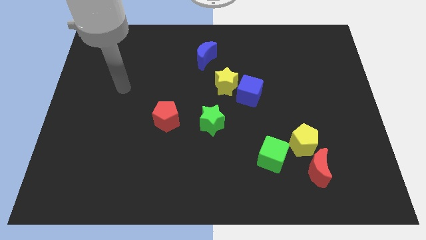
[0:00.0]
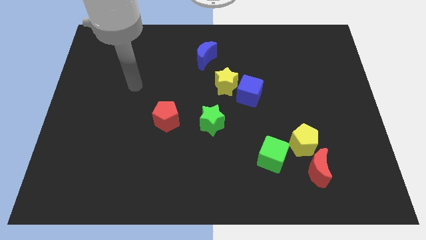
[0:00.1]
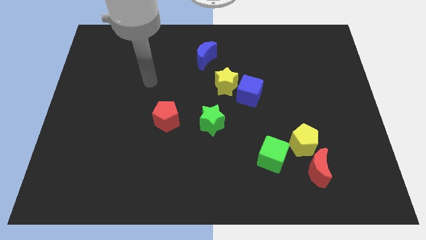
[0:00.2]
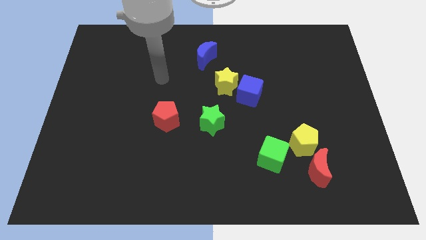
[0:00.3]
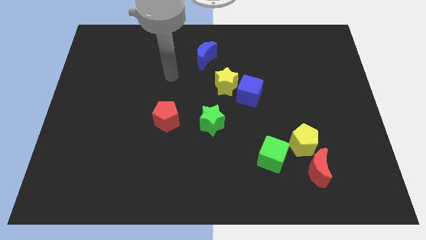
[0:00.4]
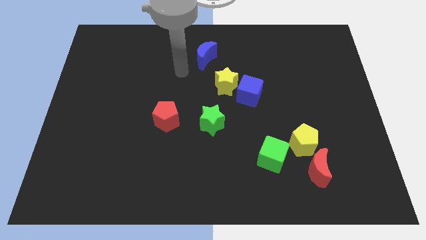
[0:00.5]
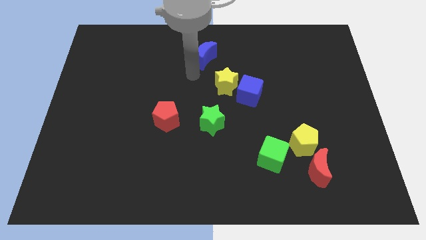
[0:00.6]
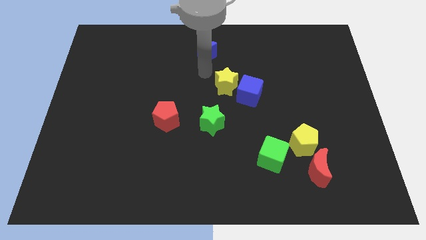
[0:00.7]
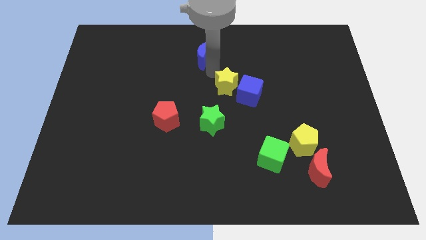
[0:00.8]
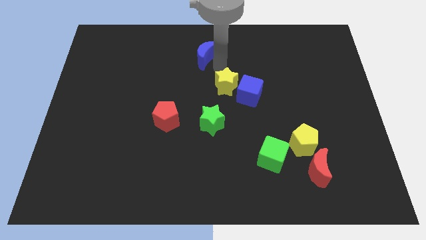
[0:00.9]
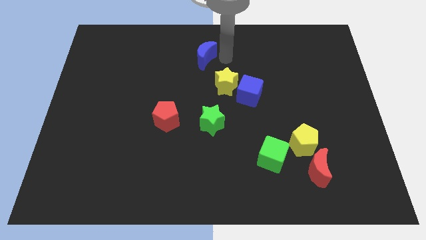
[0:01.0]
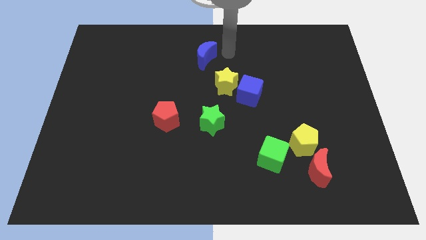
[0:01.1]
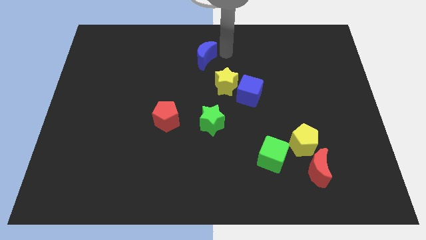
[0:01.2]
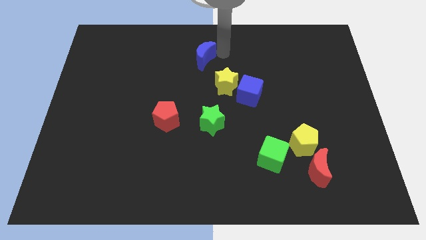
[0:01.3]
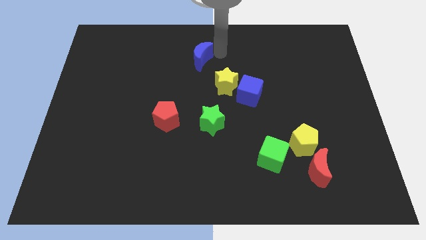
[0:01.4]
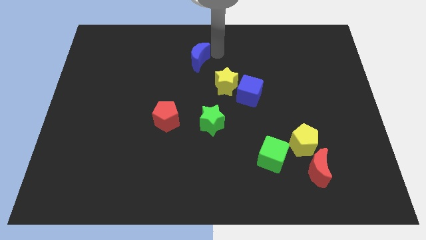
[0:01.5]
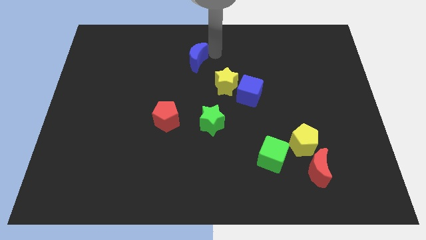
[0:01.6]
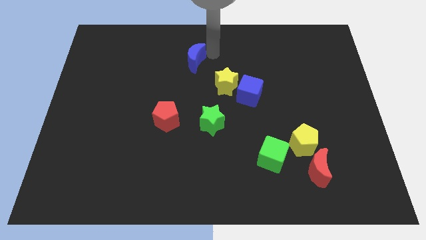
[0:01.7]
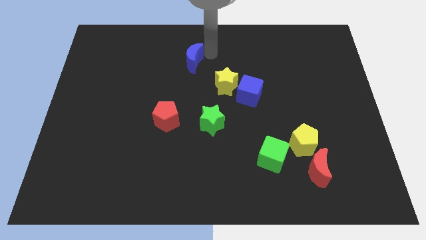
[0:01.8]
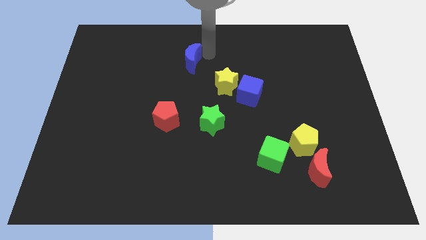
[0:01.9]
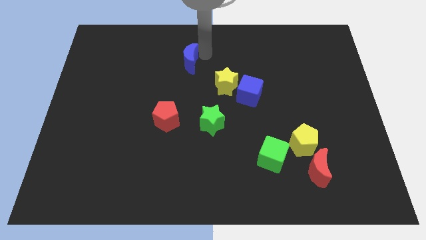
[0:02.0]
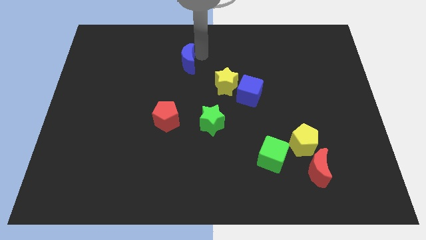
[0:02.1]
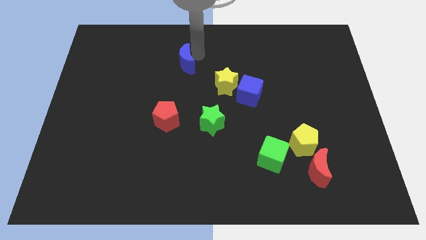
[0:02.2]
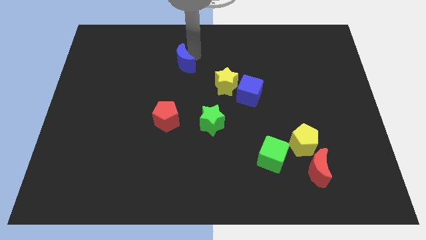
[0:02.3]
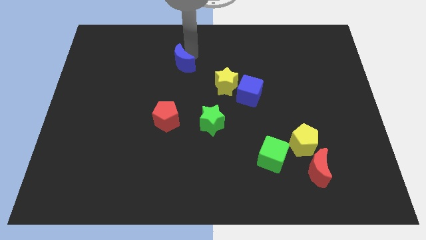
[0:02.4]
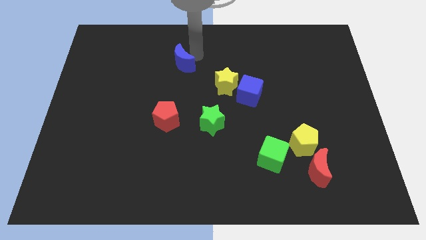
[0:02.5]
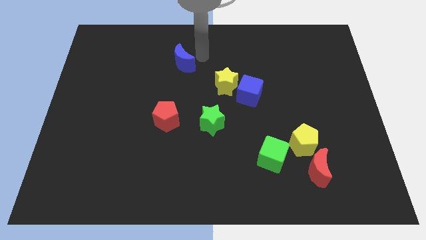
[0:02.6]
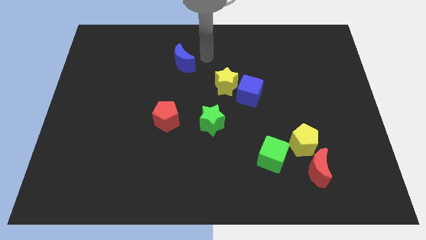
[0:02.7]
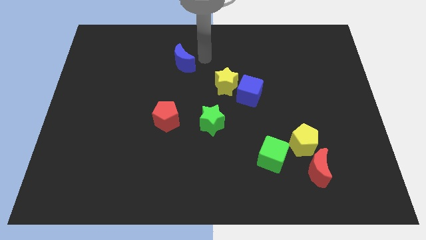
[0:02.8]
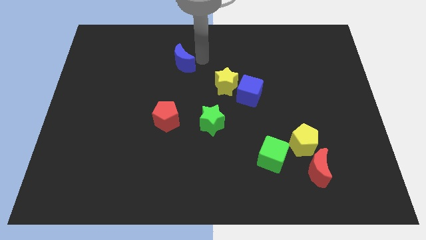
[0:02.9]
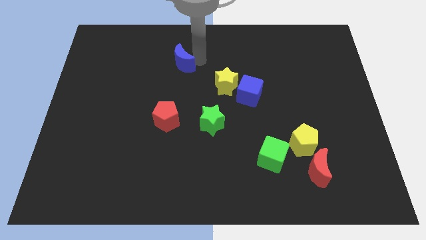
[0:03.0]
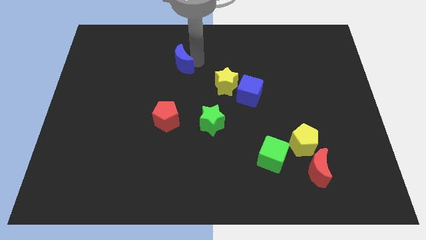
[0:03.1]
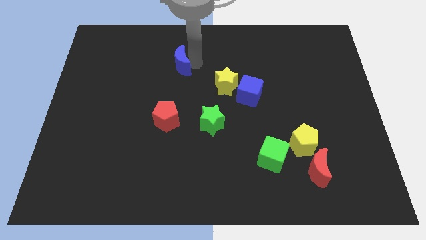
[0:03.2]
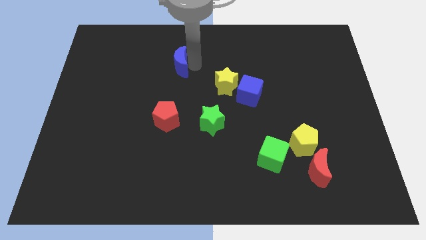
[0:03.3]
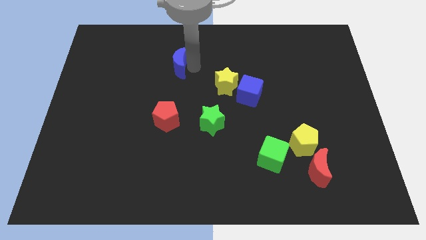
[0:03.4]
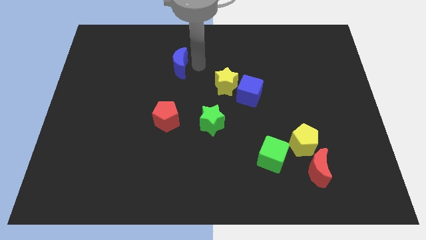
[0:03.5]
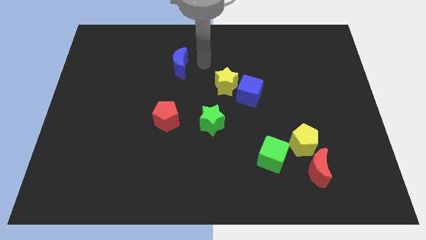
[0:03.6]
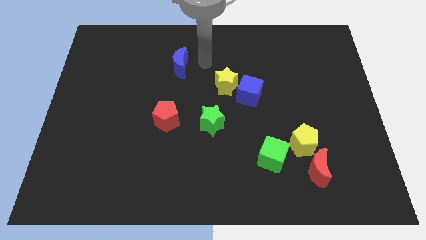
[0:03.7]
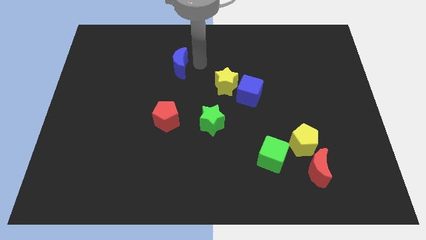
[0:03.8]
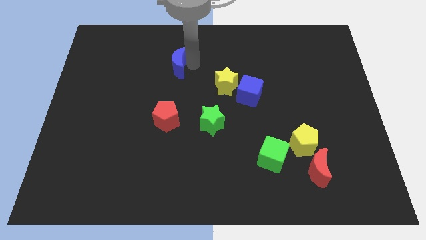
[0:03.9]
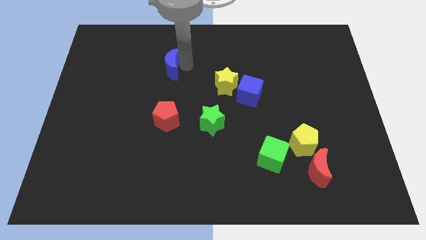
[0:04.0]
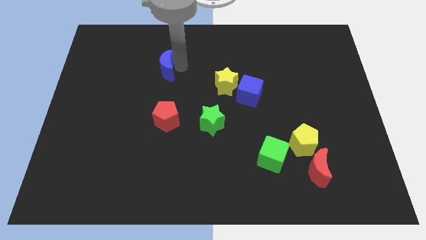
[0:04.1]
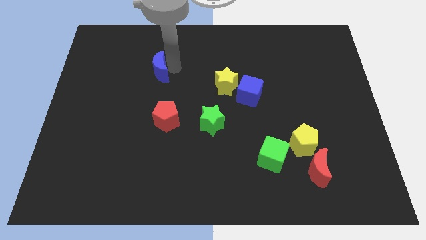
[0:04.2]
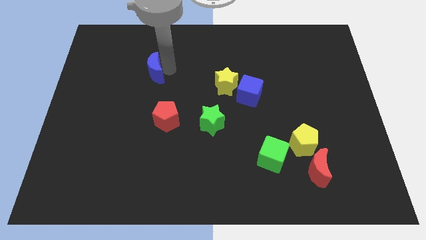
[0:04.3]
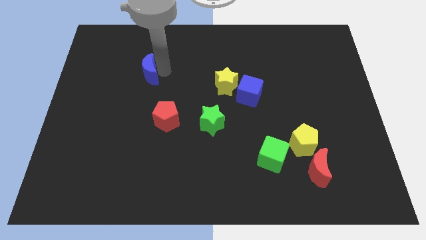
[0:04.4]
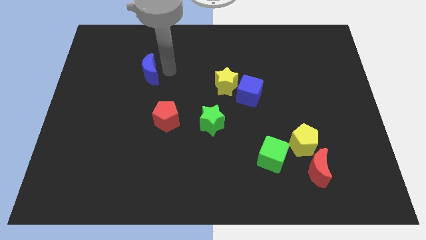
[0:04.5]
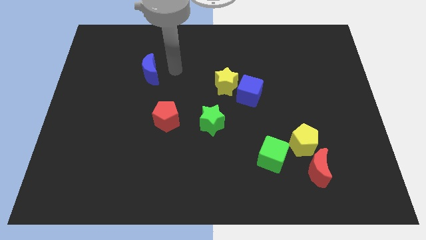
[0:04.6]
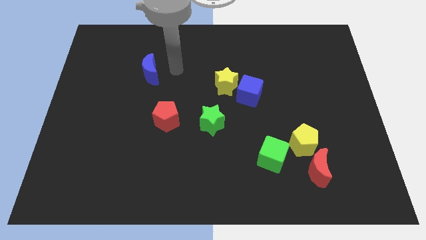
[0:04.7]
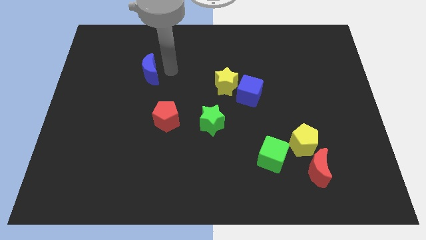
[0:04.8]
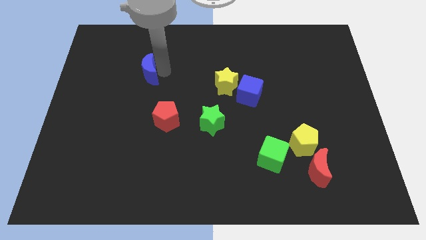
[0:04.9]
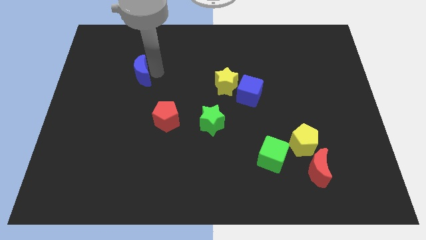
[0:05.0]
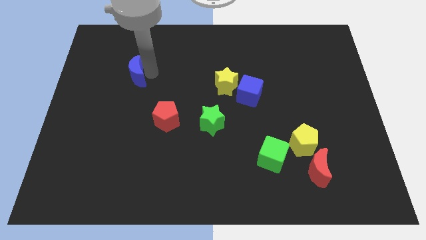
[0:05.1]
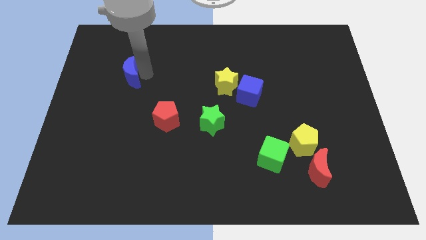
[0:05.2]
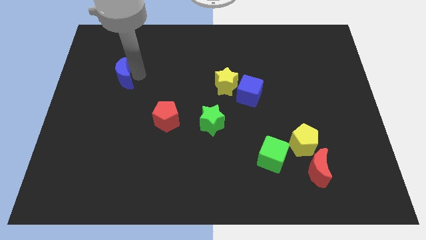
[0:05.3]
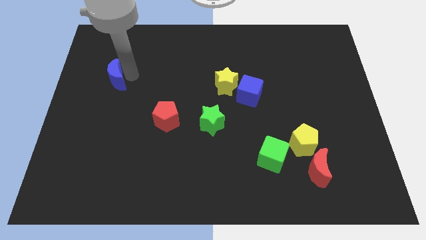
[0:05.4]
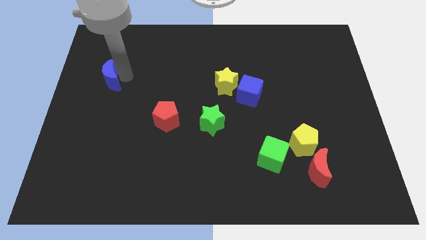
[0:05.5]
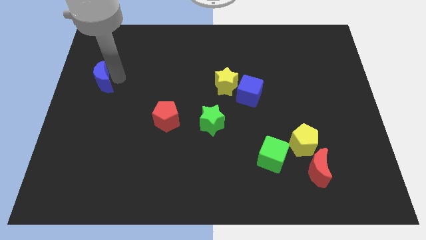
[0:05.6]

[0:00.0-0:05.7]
put the blue moon to the left side

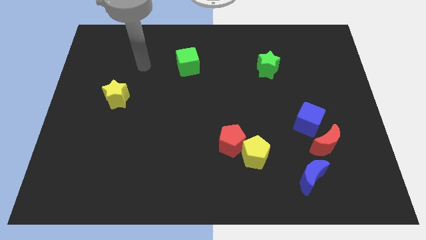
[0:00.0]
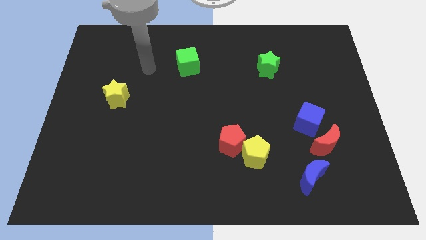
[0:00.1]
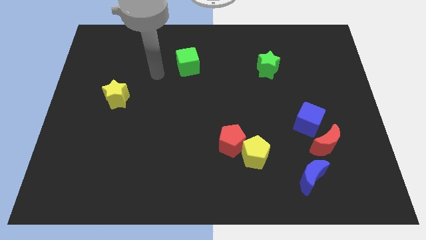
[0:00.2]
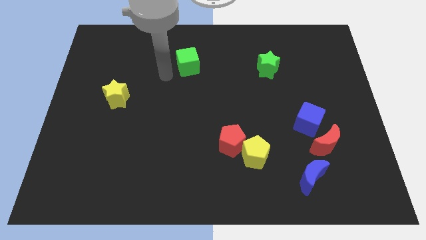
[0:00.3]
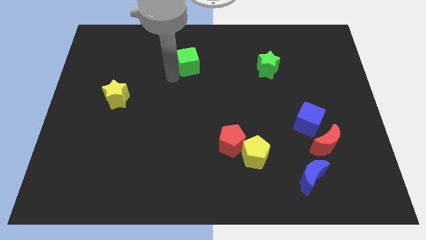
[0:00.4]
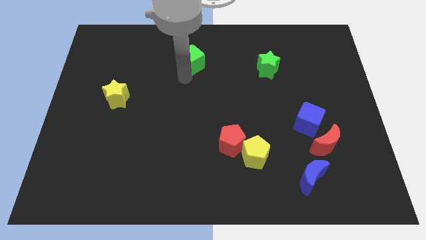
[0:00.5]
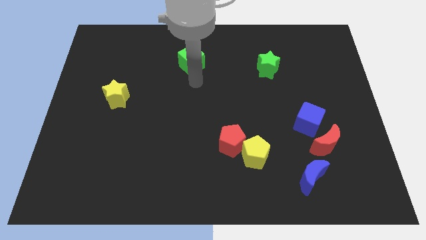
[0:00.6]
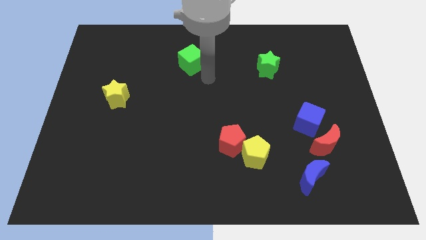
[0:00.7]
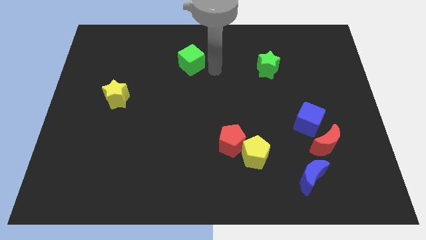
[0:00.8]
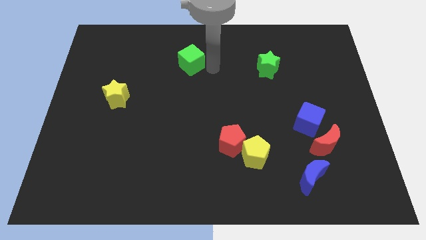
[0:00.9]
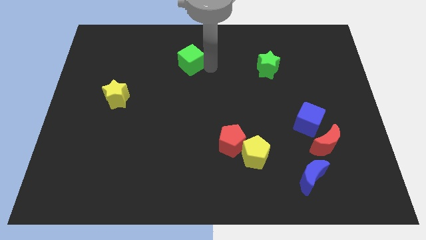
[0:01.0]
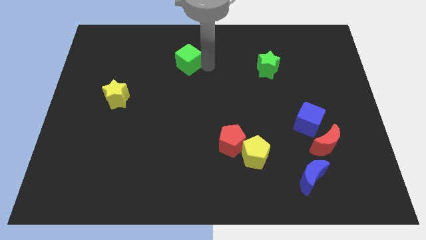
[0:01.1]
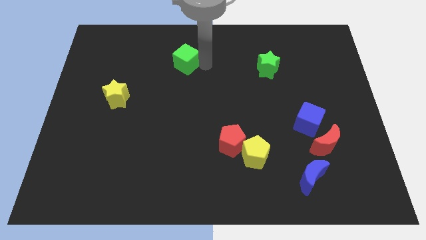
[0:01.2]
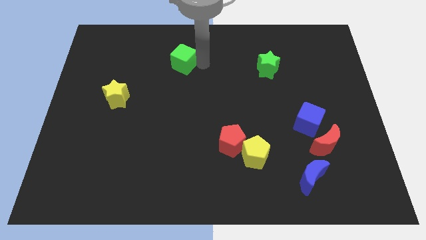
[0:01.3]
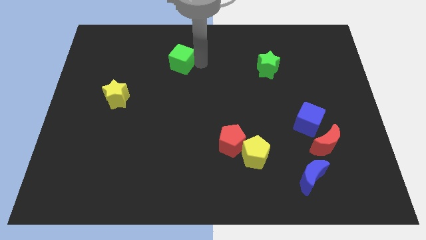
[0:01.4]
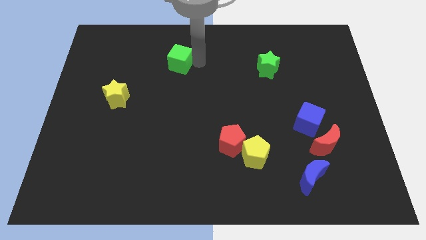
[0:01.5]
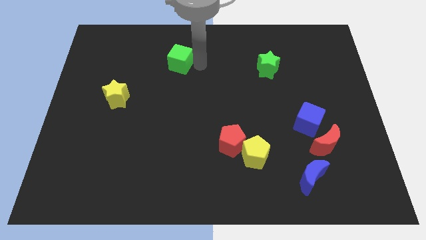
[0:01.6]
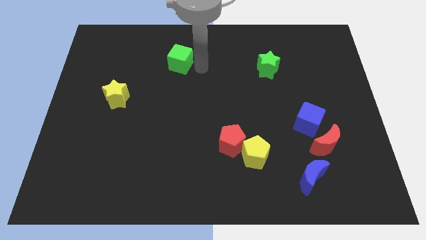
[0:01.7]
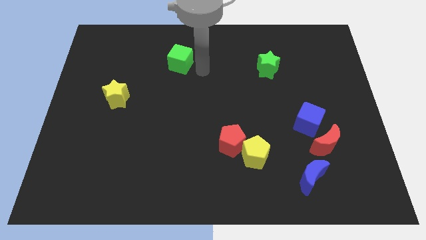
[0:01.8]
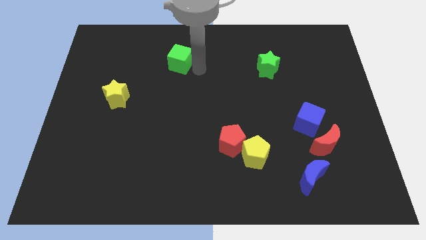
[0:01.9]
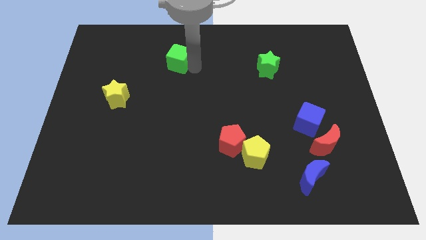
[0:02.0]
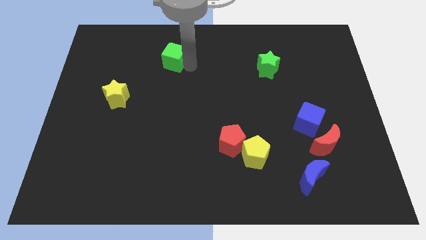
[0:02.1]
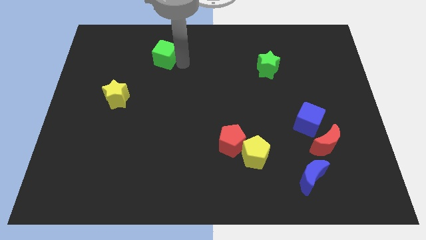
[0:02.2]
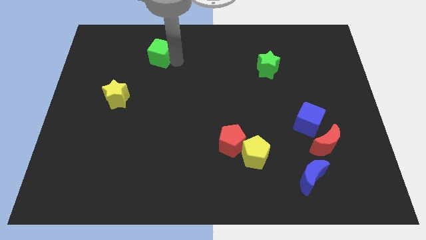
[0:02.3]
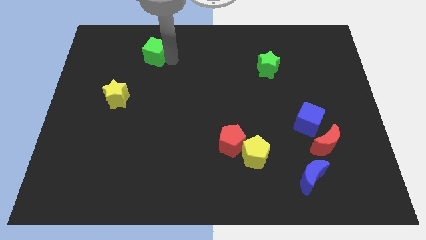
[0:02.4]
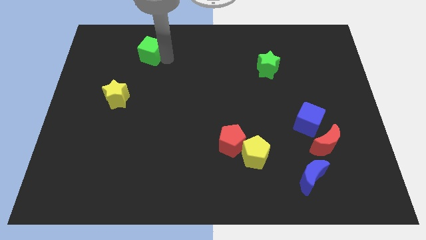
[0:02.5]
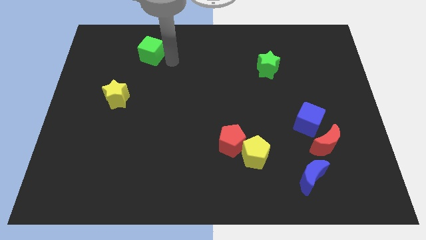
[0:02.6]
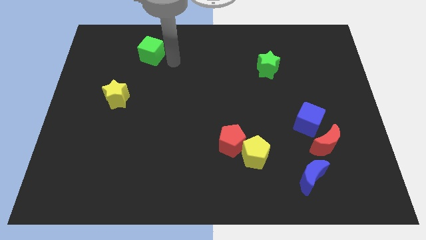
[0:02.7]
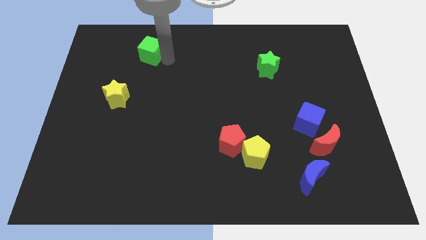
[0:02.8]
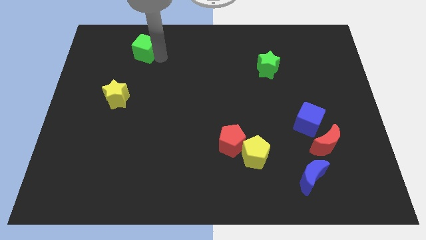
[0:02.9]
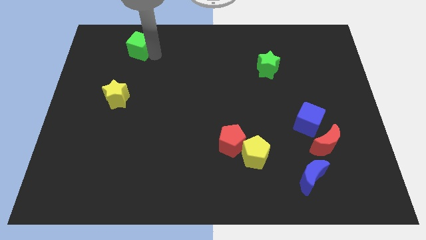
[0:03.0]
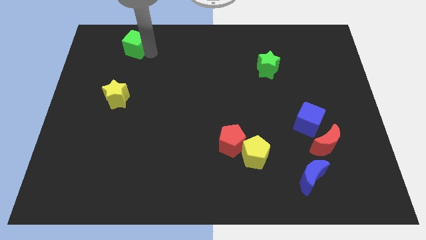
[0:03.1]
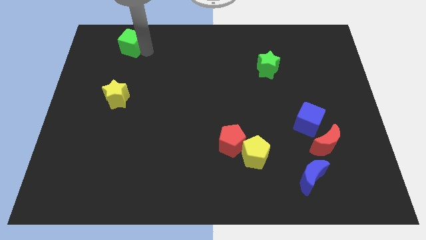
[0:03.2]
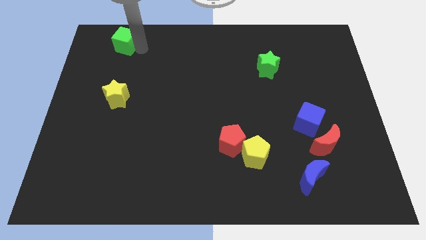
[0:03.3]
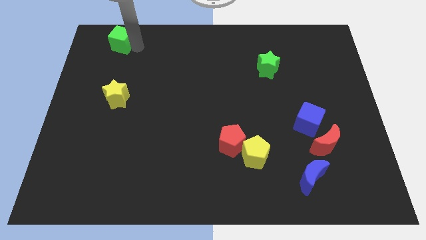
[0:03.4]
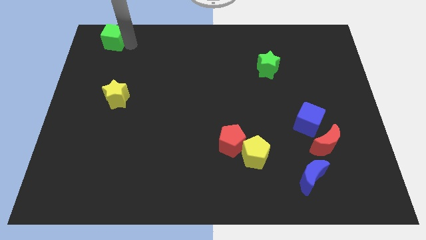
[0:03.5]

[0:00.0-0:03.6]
move the green cube to the top left of the board
